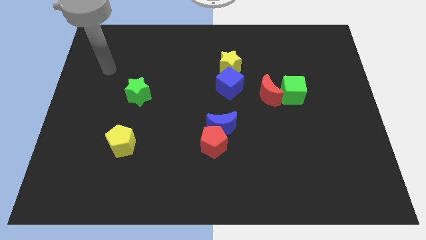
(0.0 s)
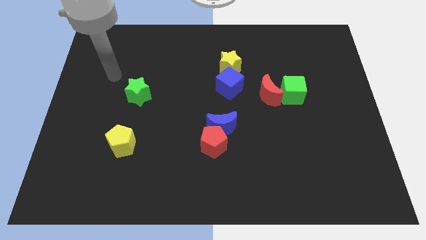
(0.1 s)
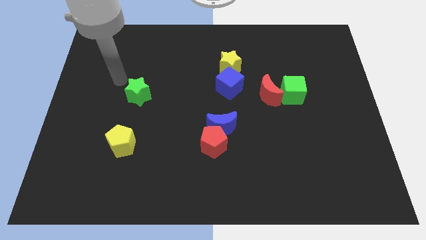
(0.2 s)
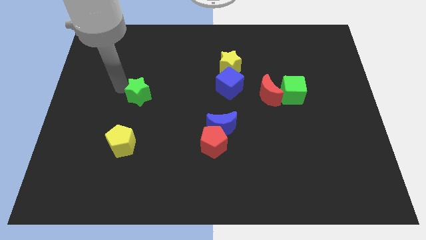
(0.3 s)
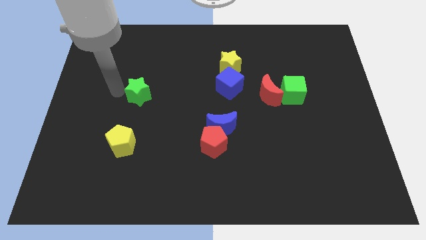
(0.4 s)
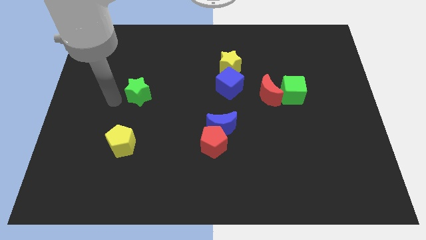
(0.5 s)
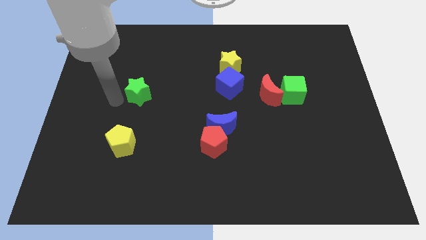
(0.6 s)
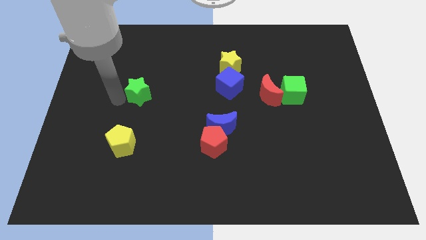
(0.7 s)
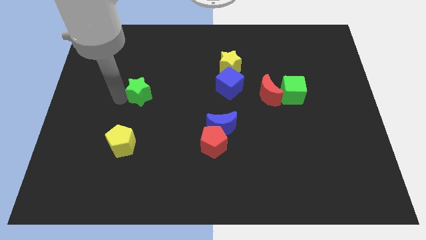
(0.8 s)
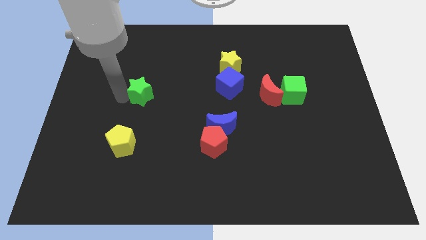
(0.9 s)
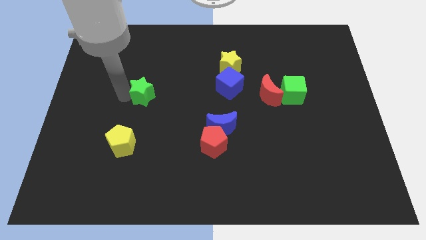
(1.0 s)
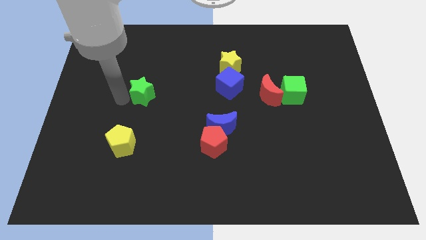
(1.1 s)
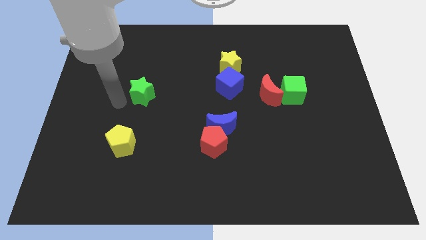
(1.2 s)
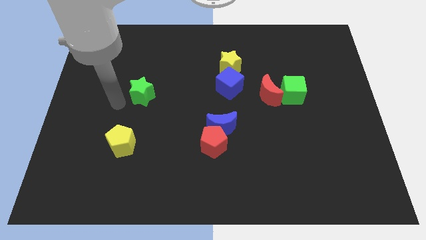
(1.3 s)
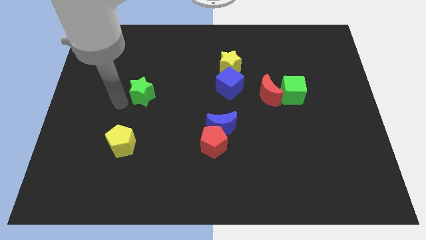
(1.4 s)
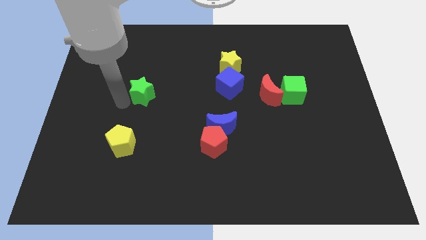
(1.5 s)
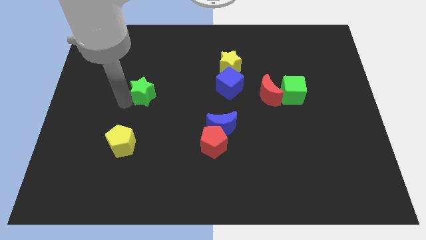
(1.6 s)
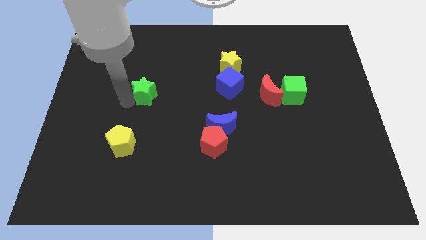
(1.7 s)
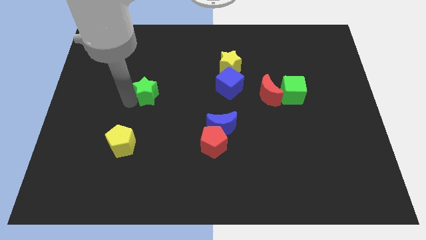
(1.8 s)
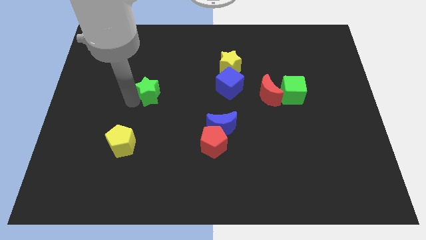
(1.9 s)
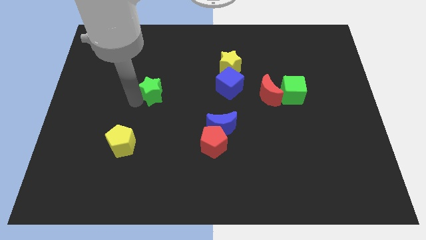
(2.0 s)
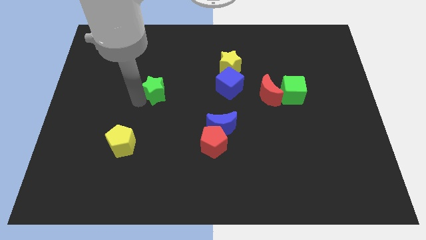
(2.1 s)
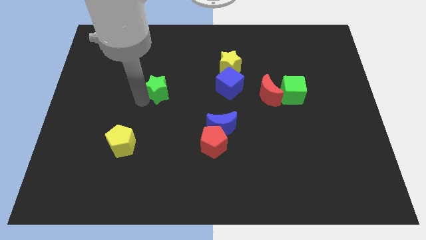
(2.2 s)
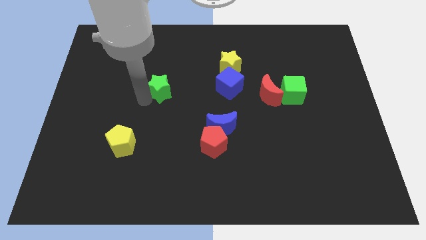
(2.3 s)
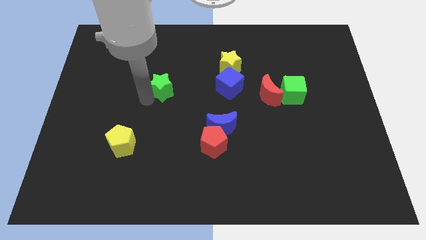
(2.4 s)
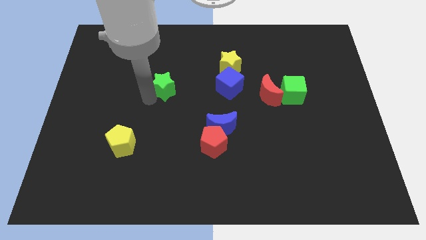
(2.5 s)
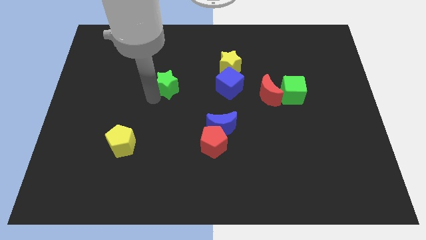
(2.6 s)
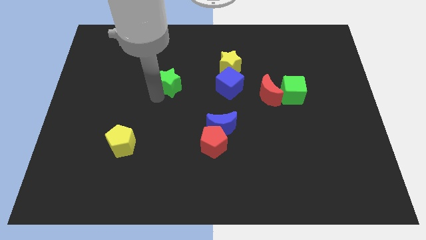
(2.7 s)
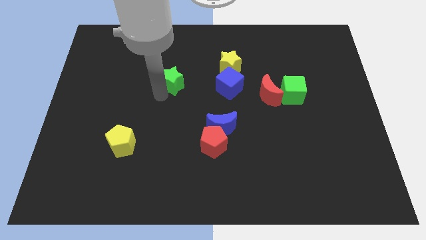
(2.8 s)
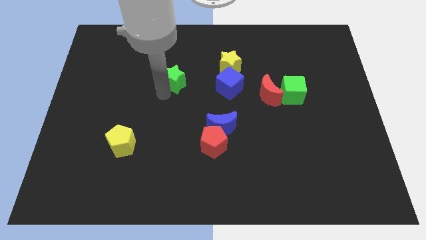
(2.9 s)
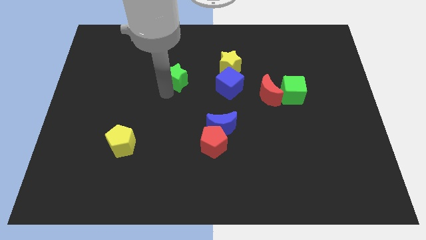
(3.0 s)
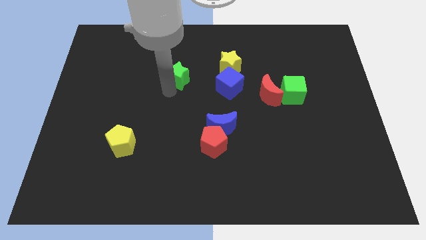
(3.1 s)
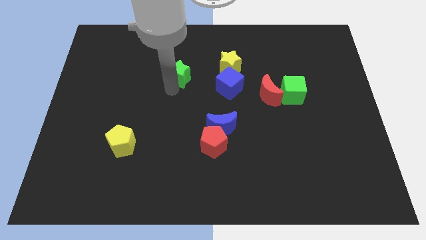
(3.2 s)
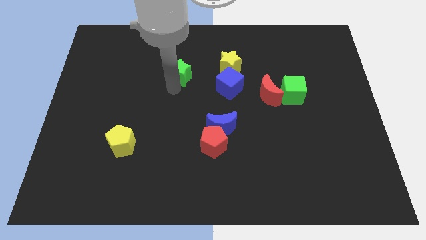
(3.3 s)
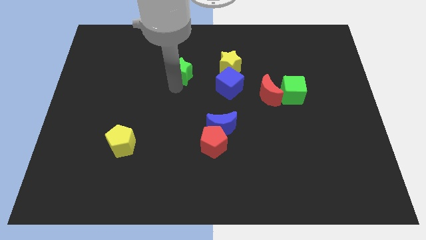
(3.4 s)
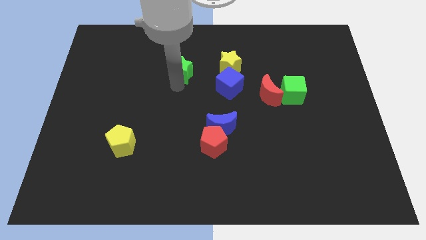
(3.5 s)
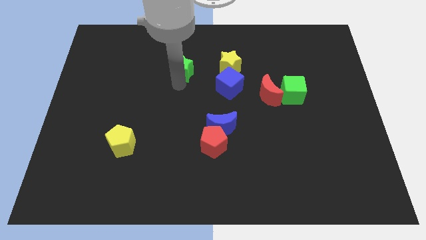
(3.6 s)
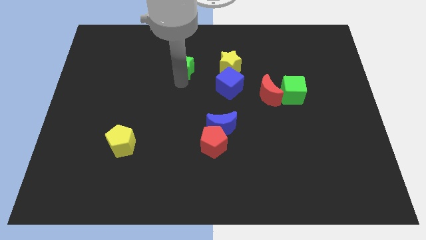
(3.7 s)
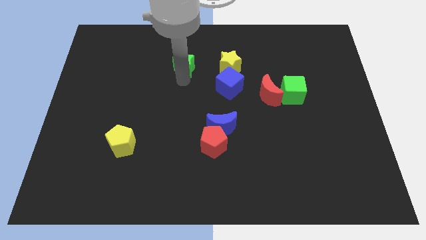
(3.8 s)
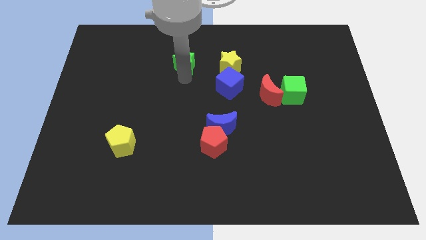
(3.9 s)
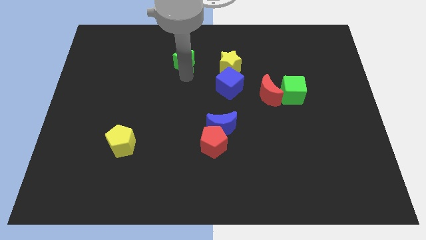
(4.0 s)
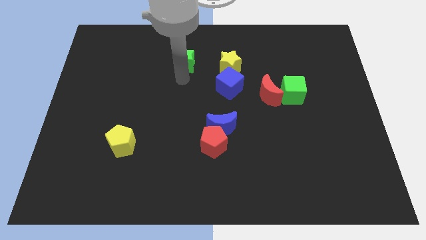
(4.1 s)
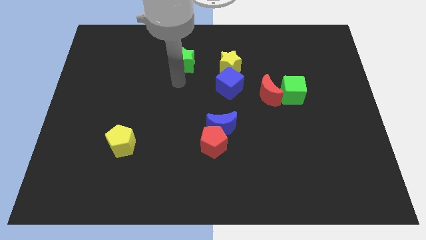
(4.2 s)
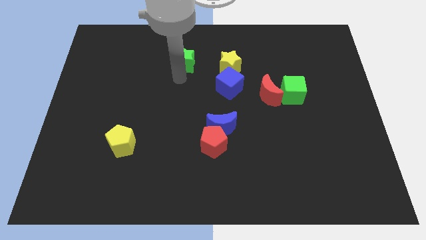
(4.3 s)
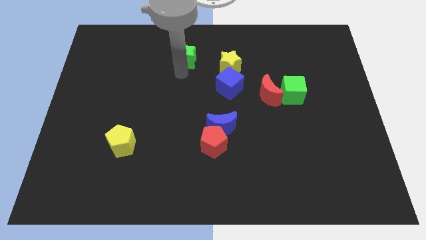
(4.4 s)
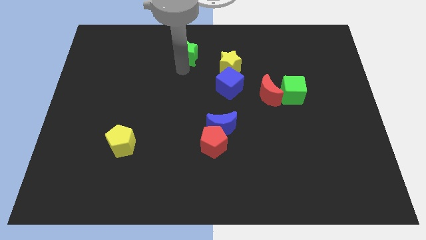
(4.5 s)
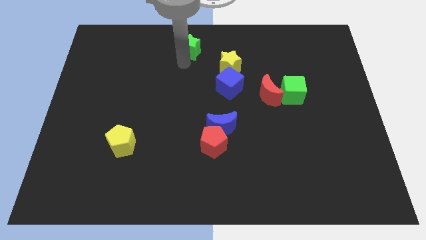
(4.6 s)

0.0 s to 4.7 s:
put the green star to the towards your base

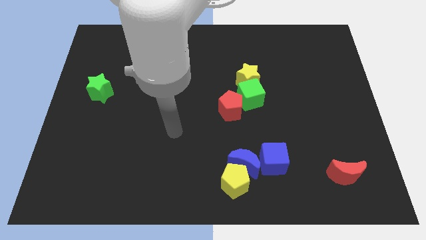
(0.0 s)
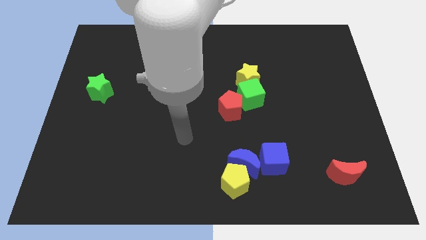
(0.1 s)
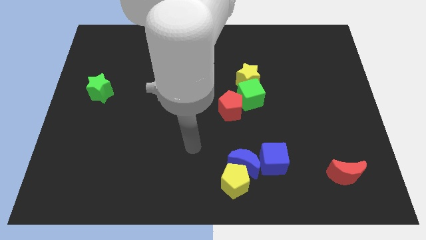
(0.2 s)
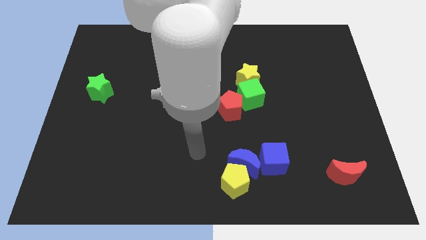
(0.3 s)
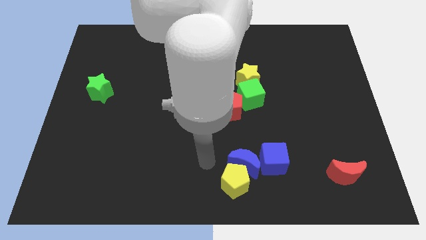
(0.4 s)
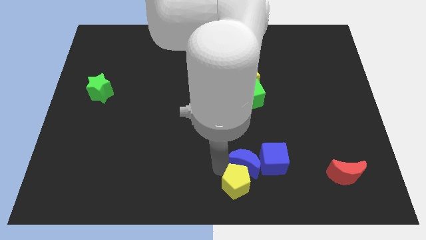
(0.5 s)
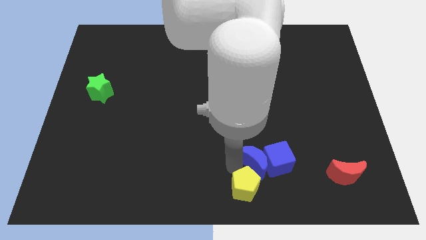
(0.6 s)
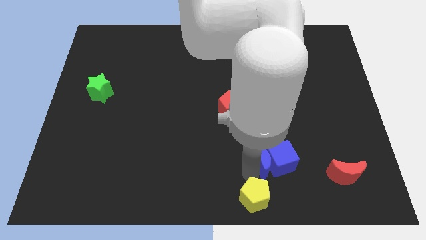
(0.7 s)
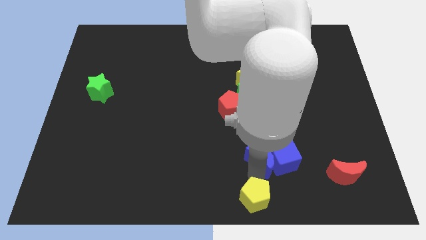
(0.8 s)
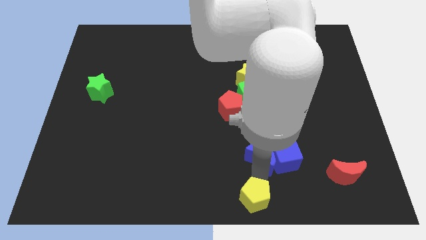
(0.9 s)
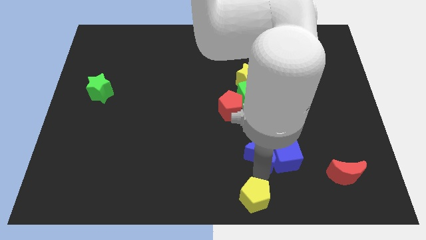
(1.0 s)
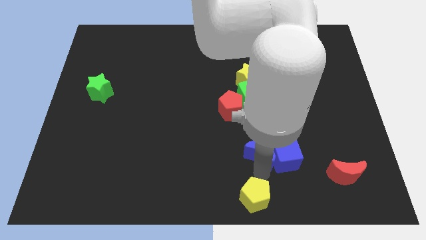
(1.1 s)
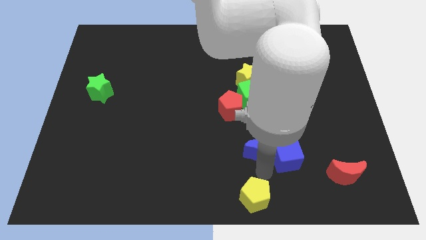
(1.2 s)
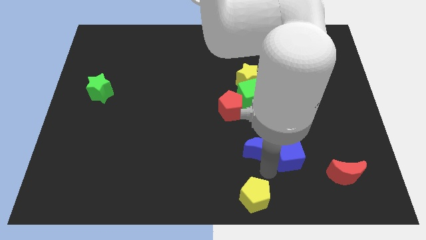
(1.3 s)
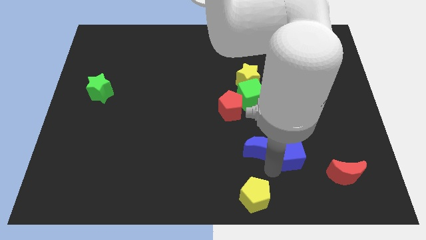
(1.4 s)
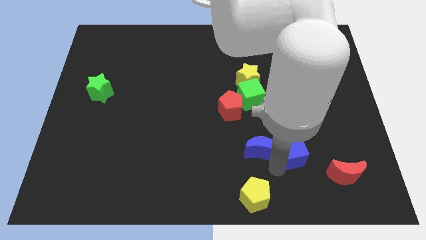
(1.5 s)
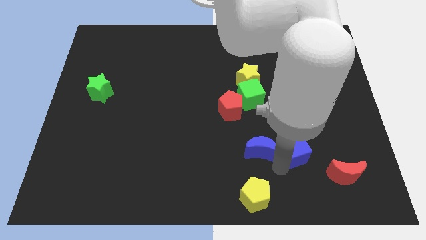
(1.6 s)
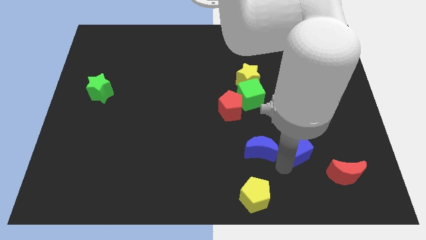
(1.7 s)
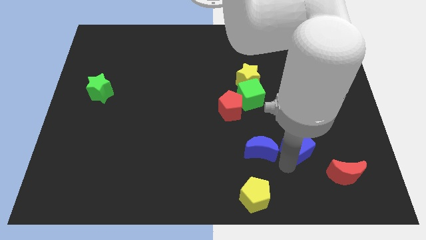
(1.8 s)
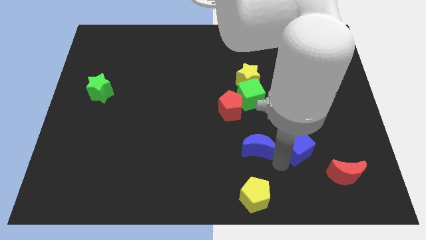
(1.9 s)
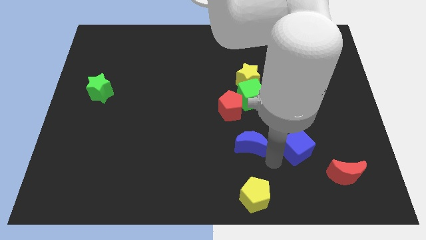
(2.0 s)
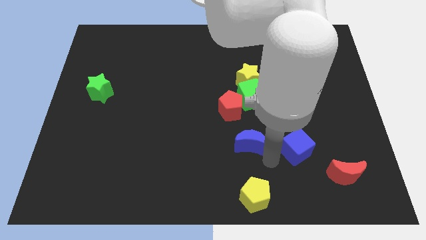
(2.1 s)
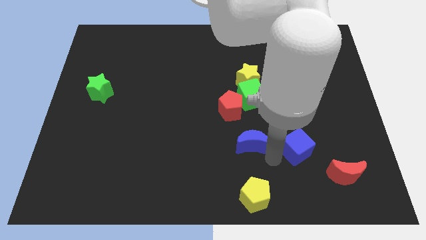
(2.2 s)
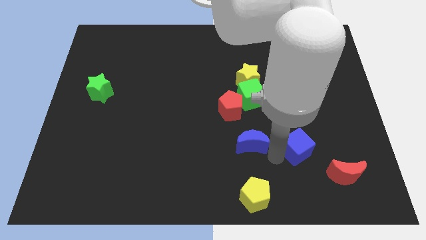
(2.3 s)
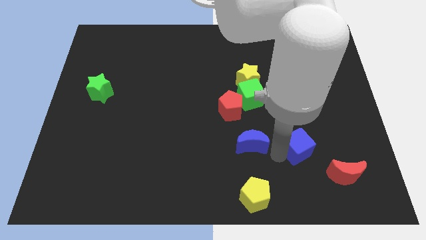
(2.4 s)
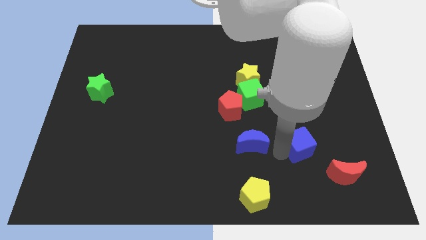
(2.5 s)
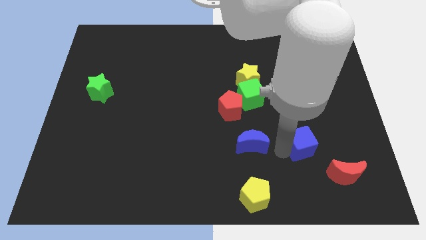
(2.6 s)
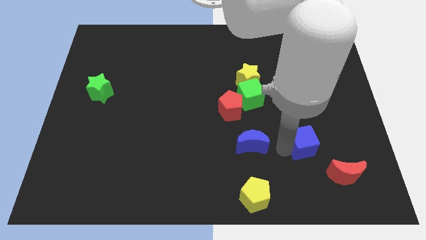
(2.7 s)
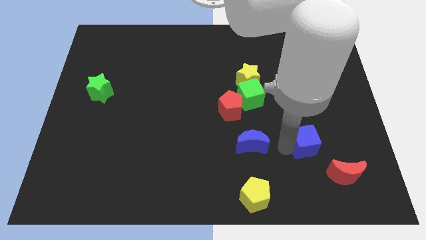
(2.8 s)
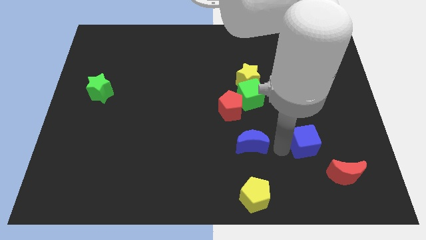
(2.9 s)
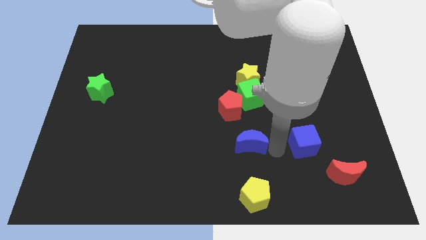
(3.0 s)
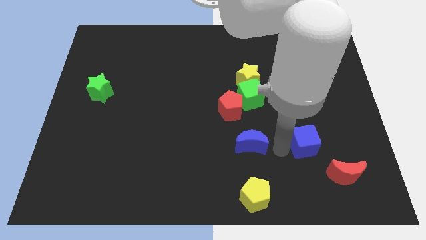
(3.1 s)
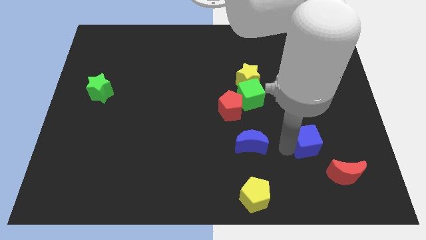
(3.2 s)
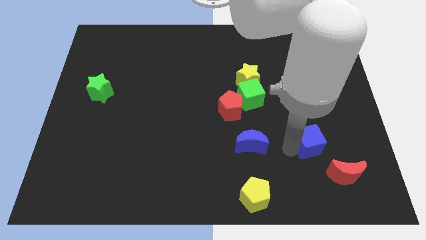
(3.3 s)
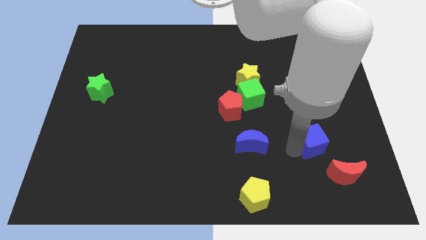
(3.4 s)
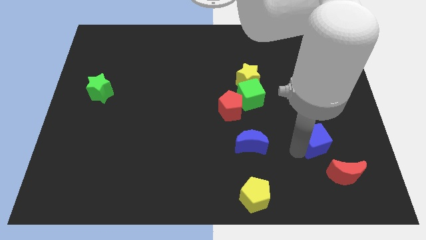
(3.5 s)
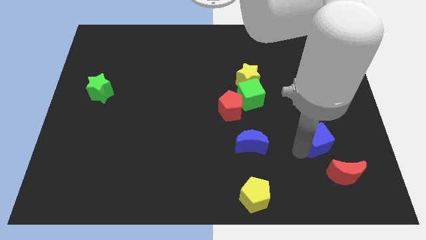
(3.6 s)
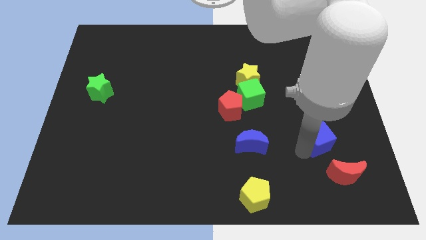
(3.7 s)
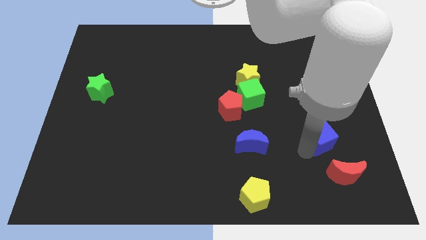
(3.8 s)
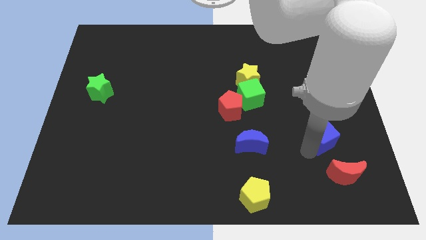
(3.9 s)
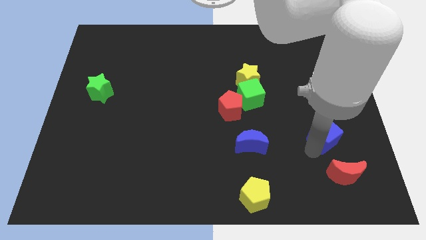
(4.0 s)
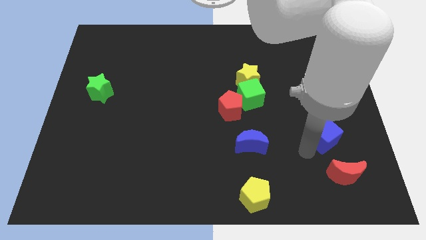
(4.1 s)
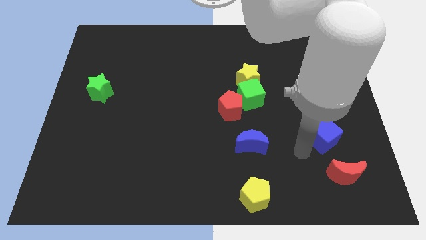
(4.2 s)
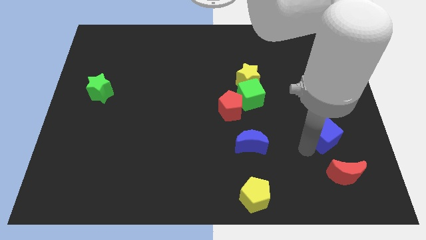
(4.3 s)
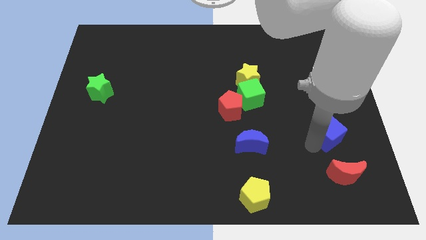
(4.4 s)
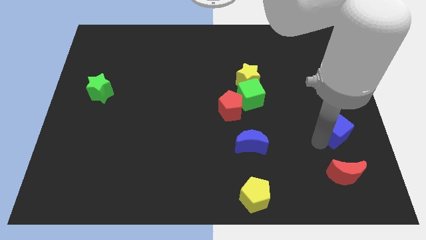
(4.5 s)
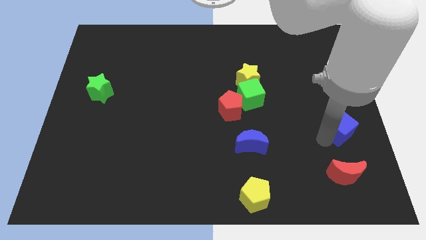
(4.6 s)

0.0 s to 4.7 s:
move the blue cube to the right side
